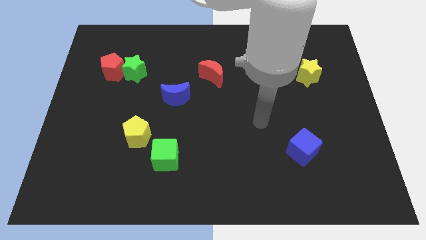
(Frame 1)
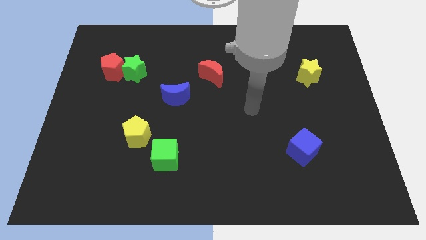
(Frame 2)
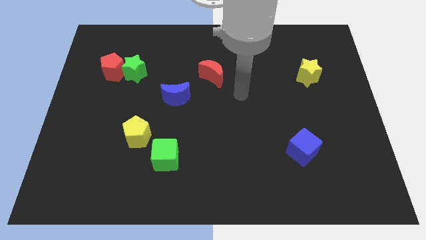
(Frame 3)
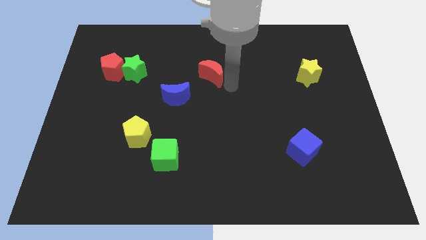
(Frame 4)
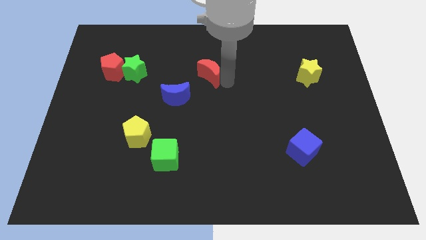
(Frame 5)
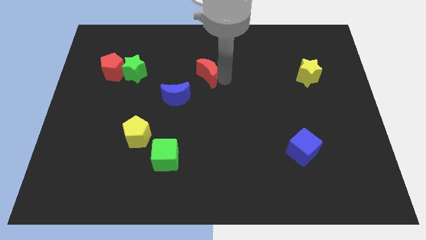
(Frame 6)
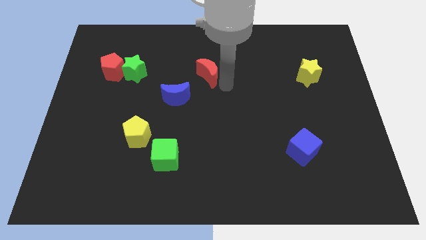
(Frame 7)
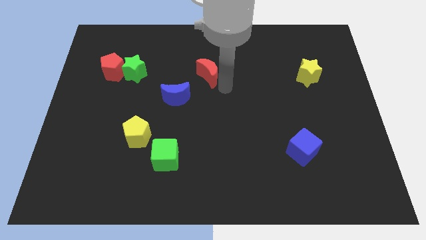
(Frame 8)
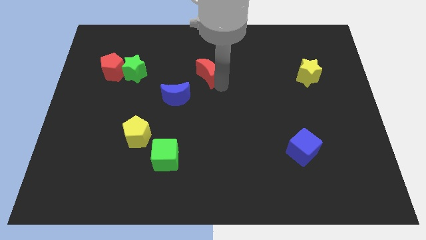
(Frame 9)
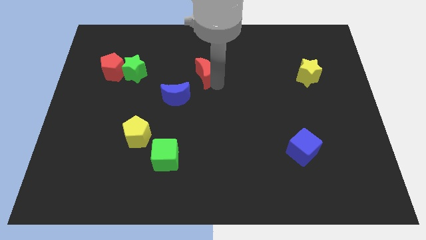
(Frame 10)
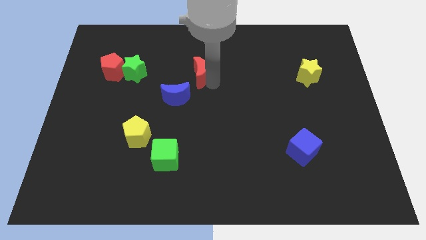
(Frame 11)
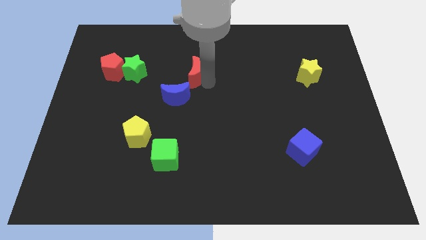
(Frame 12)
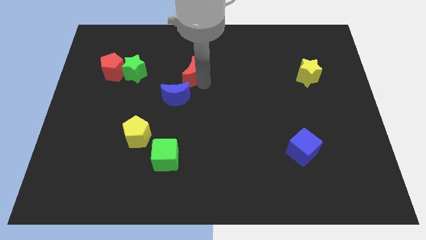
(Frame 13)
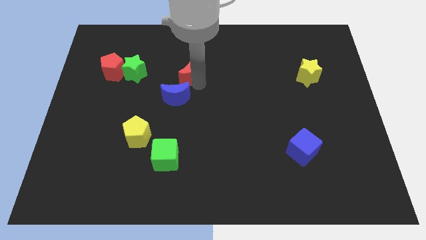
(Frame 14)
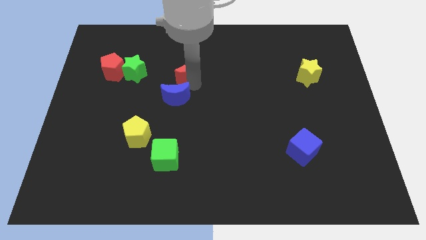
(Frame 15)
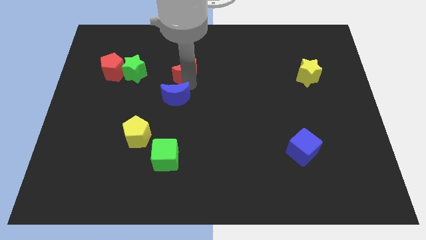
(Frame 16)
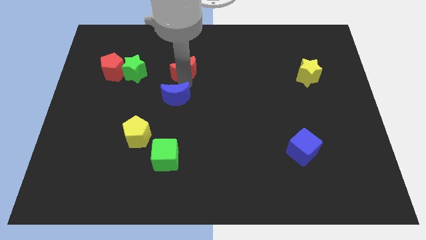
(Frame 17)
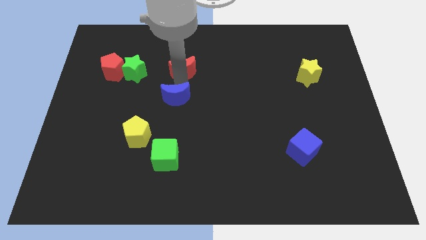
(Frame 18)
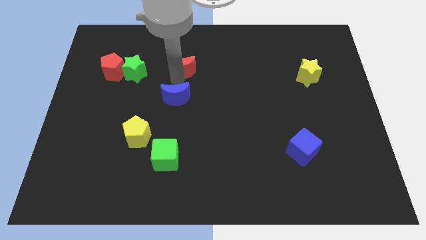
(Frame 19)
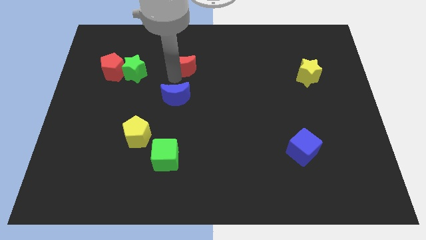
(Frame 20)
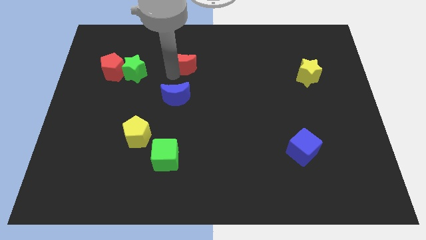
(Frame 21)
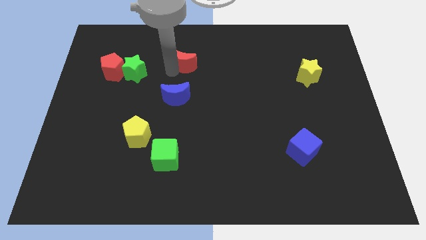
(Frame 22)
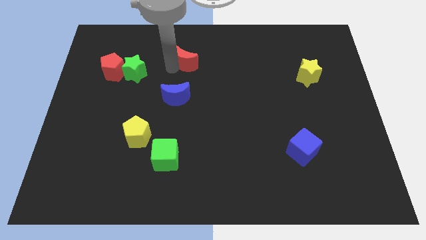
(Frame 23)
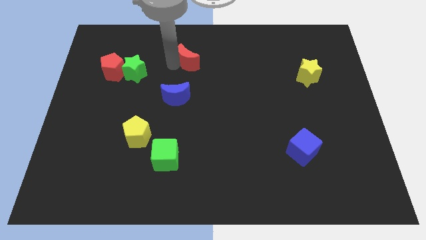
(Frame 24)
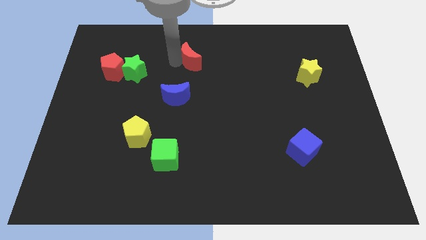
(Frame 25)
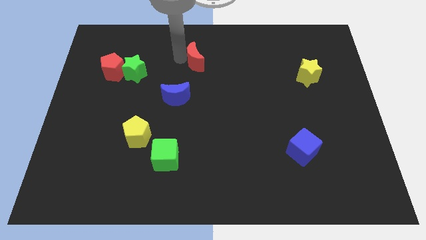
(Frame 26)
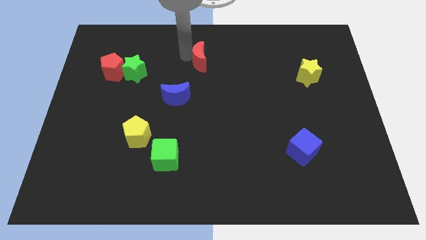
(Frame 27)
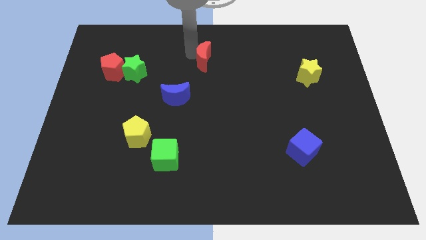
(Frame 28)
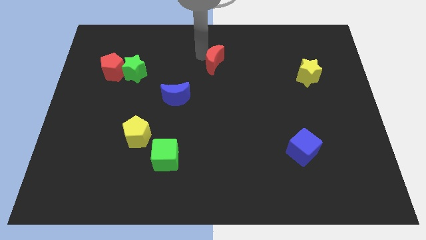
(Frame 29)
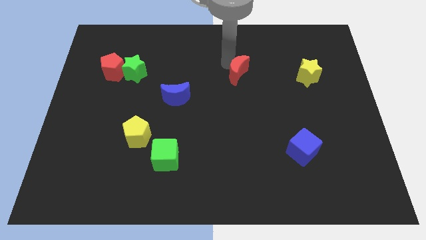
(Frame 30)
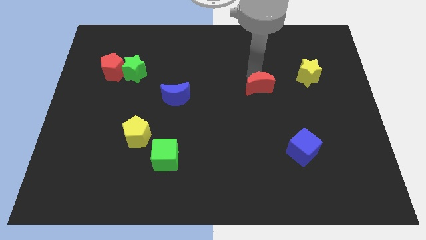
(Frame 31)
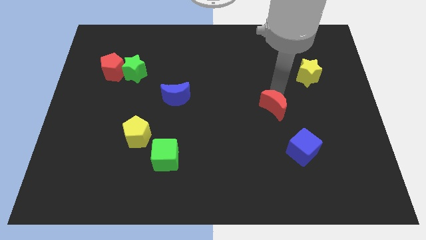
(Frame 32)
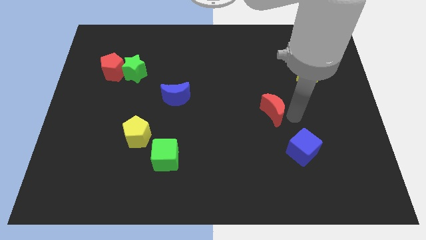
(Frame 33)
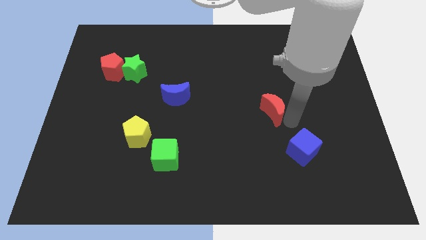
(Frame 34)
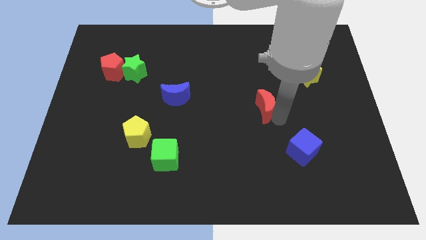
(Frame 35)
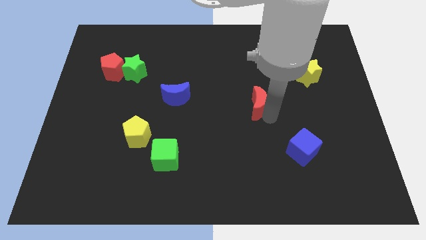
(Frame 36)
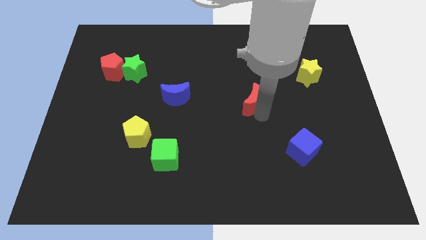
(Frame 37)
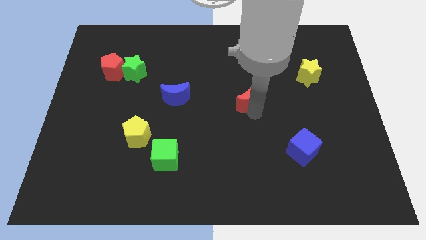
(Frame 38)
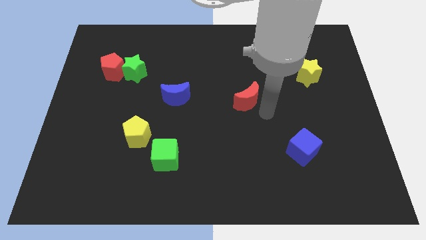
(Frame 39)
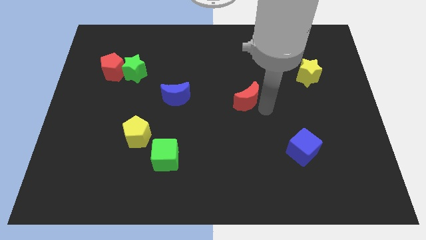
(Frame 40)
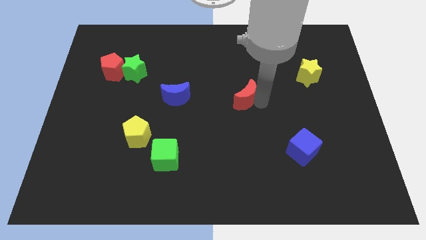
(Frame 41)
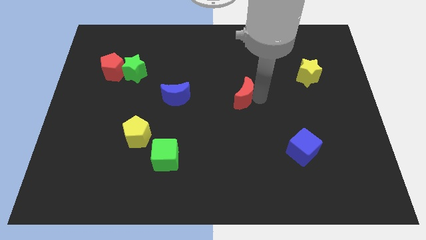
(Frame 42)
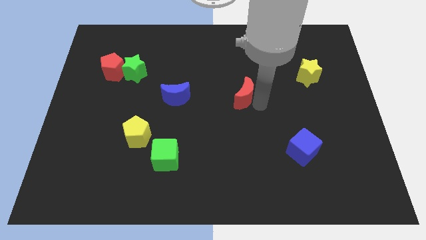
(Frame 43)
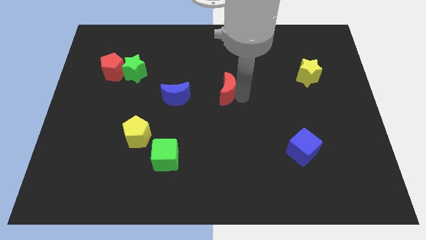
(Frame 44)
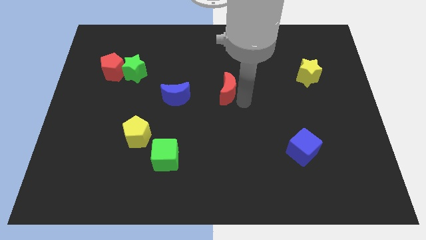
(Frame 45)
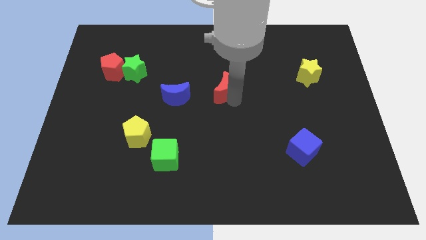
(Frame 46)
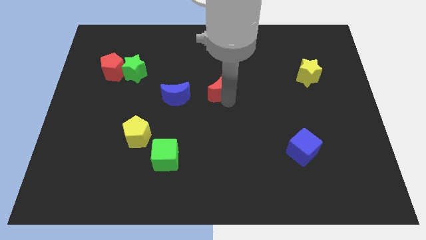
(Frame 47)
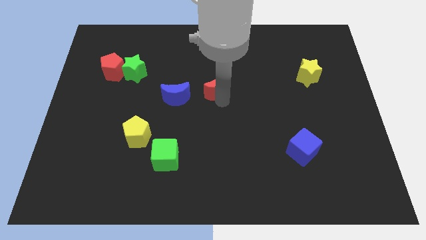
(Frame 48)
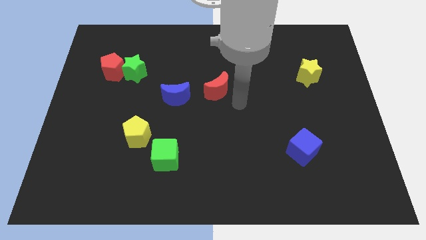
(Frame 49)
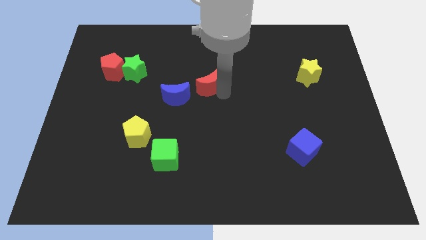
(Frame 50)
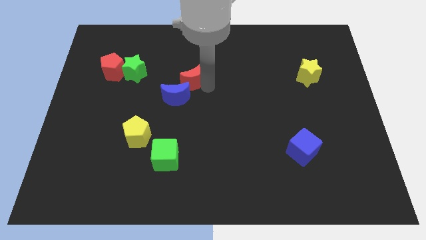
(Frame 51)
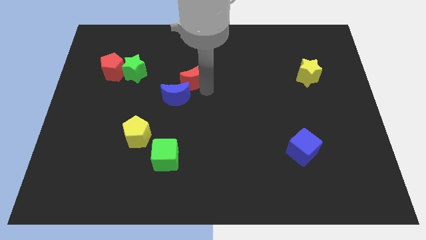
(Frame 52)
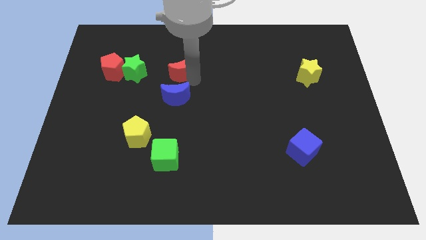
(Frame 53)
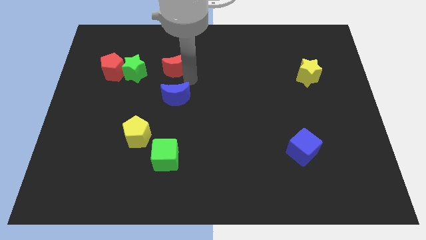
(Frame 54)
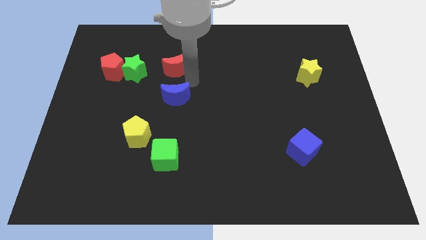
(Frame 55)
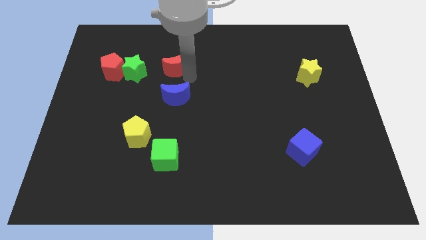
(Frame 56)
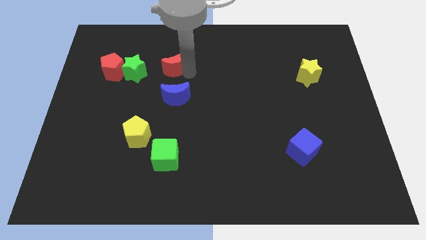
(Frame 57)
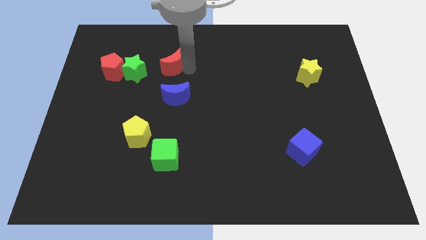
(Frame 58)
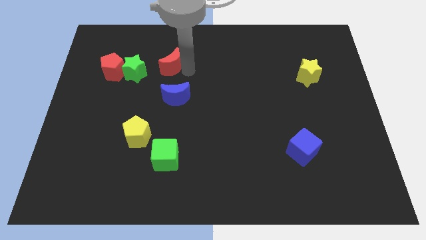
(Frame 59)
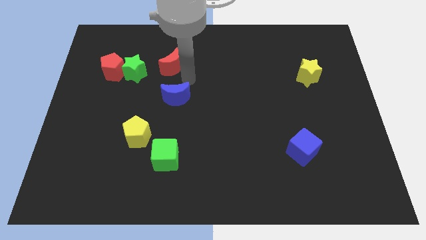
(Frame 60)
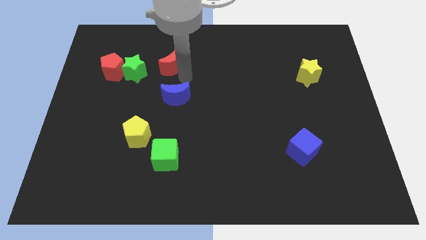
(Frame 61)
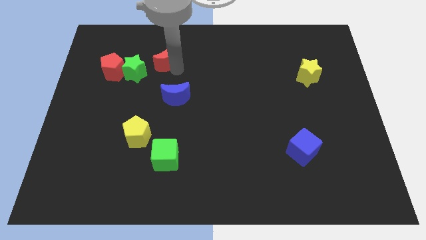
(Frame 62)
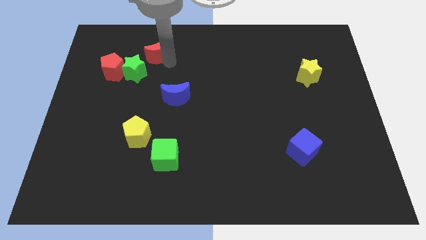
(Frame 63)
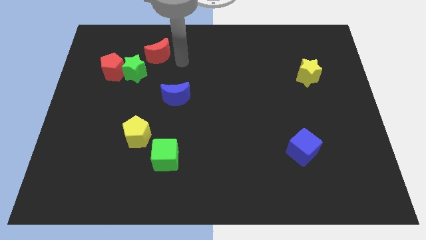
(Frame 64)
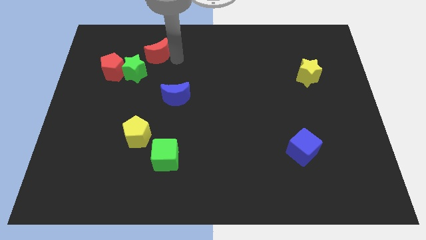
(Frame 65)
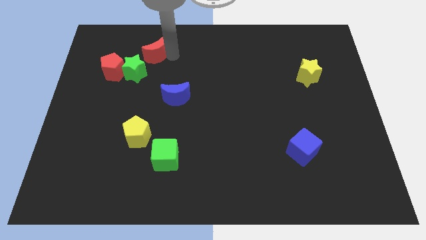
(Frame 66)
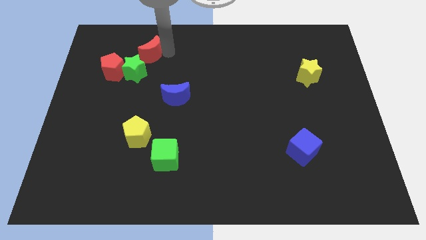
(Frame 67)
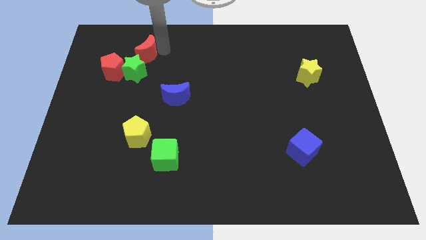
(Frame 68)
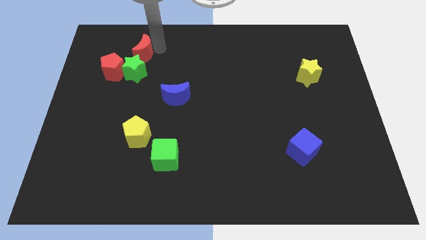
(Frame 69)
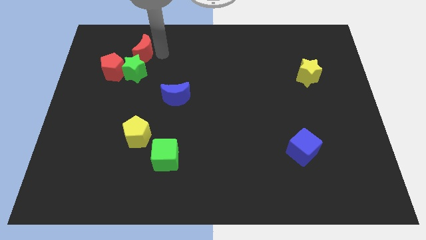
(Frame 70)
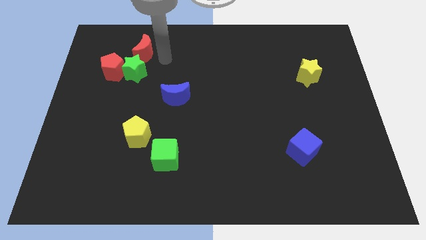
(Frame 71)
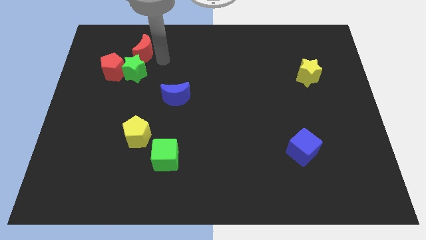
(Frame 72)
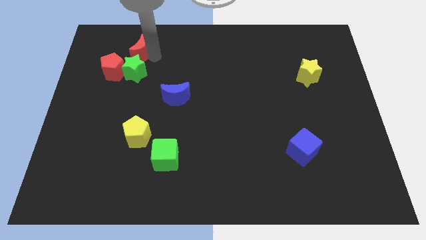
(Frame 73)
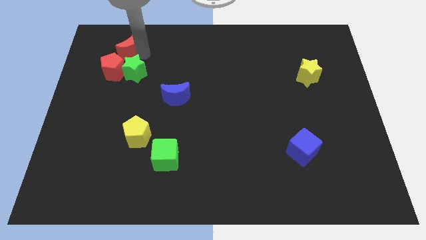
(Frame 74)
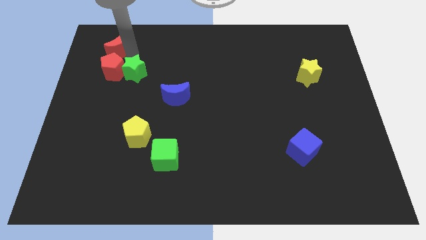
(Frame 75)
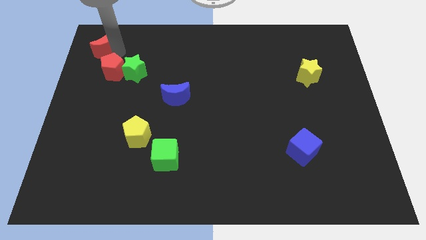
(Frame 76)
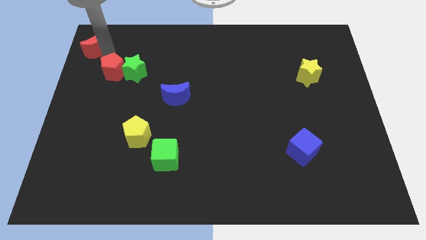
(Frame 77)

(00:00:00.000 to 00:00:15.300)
put the red moon to the top left corner
